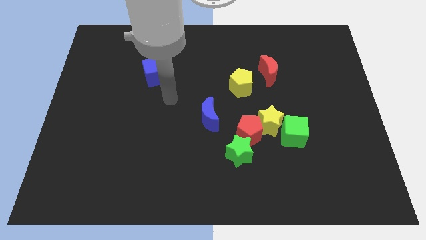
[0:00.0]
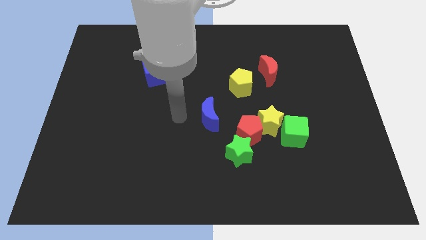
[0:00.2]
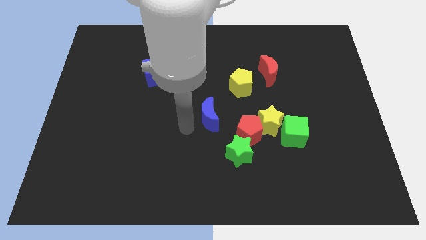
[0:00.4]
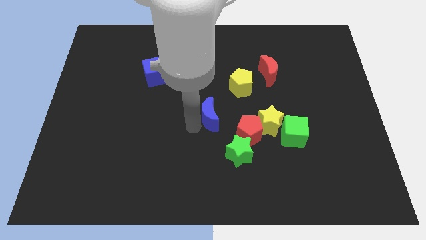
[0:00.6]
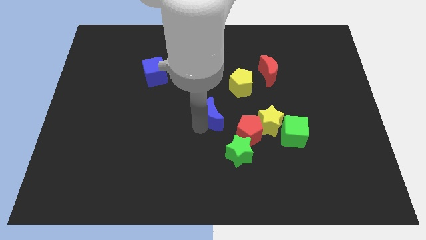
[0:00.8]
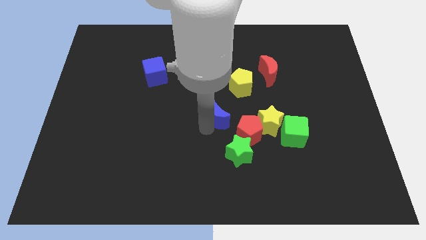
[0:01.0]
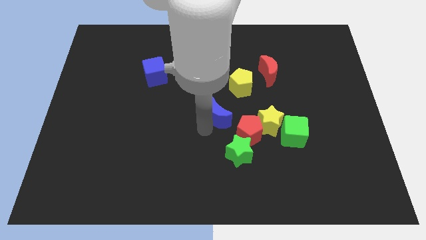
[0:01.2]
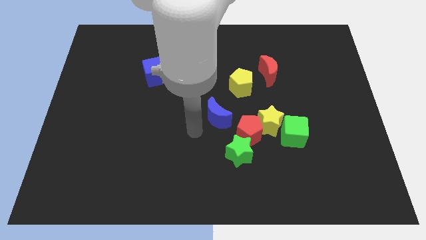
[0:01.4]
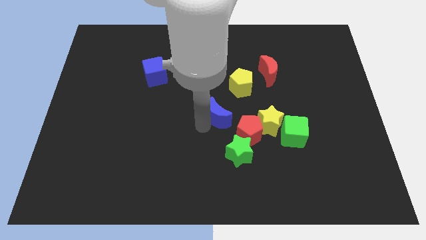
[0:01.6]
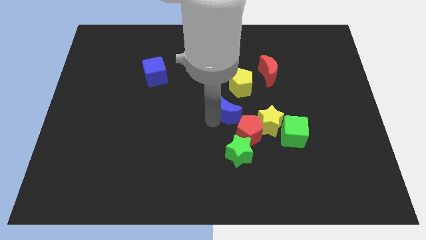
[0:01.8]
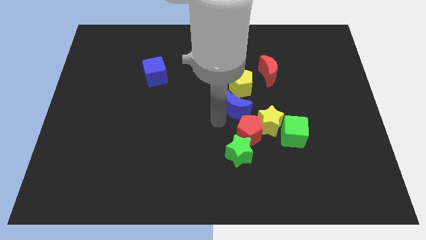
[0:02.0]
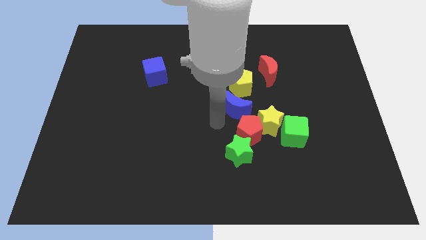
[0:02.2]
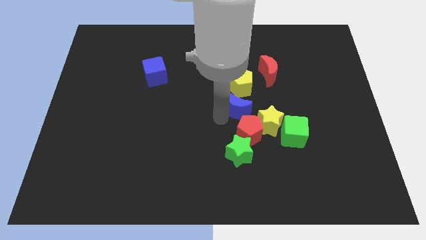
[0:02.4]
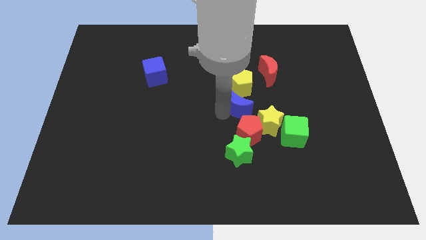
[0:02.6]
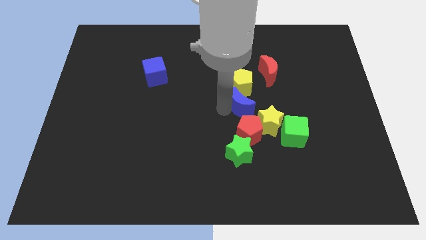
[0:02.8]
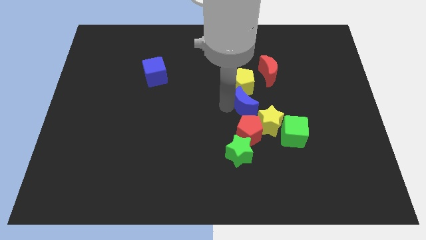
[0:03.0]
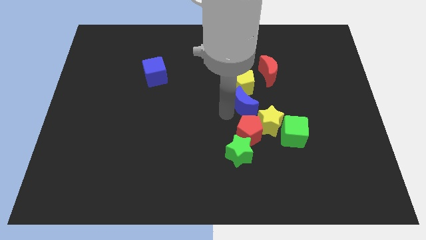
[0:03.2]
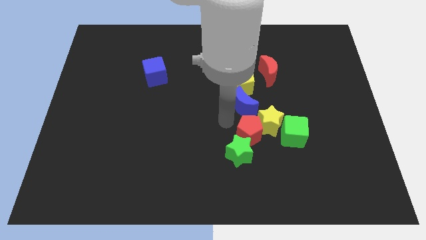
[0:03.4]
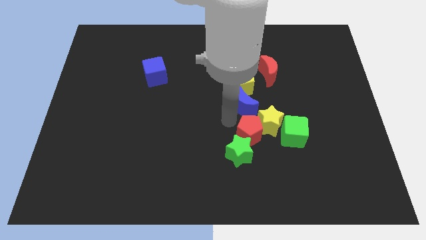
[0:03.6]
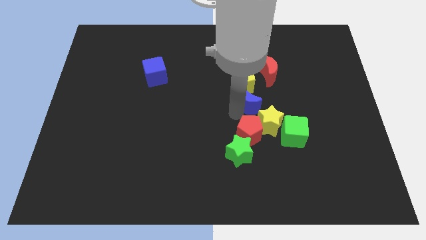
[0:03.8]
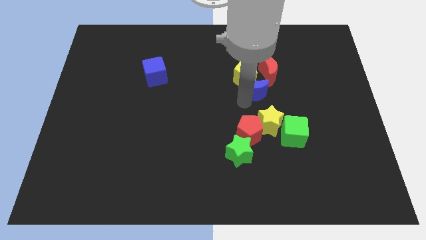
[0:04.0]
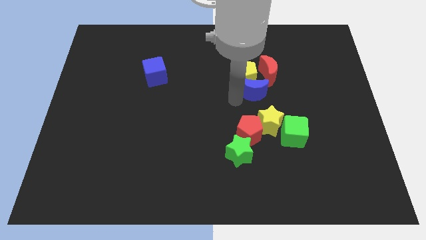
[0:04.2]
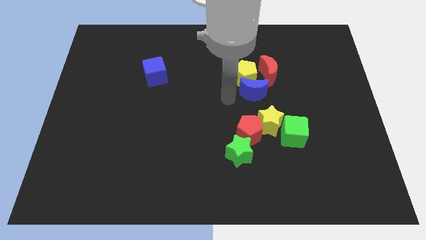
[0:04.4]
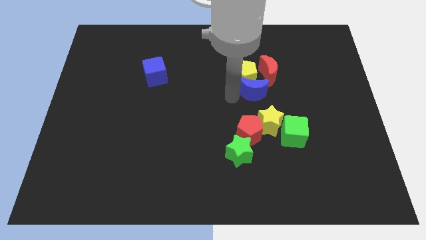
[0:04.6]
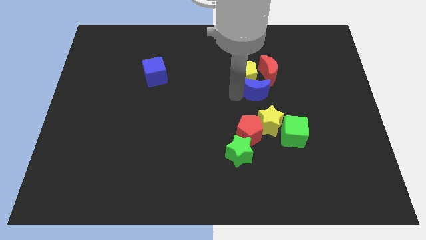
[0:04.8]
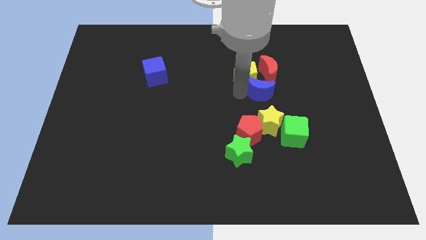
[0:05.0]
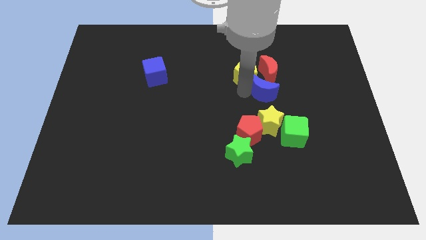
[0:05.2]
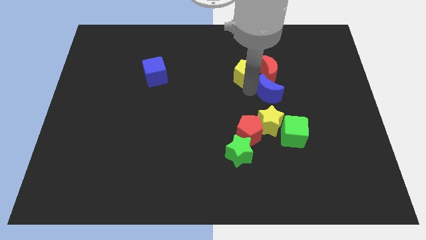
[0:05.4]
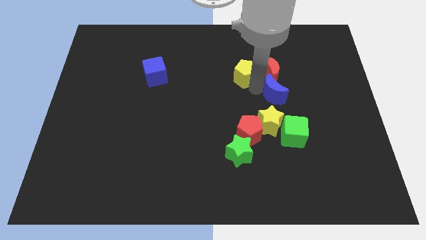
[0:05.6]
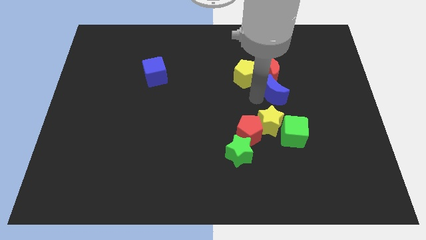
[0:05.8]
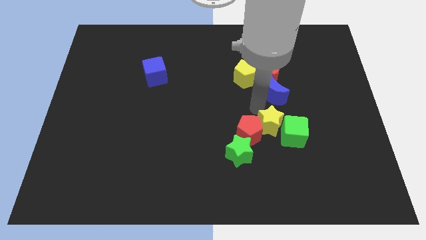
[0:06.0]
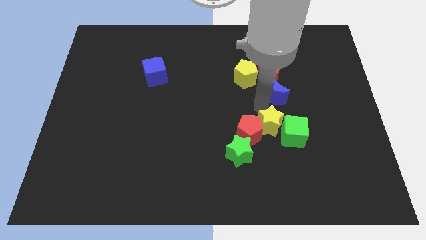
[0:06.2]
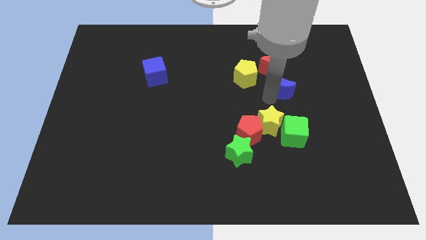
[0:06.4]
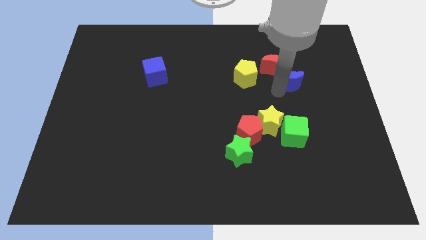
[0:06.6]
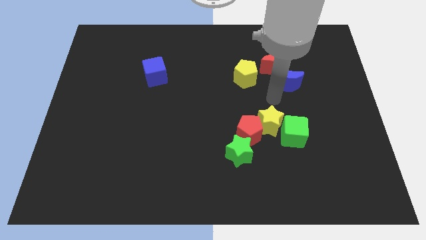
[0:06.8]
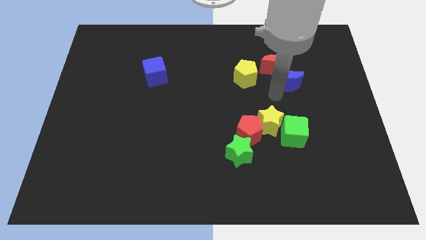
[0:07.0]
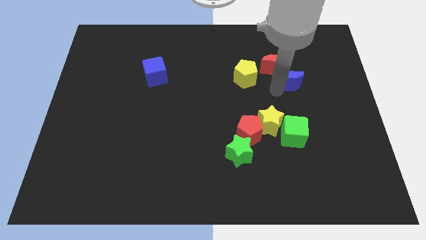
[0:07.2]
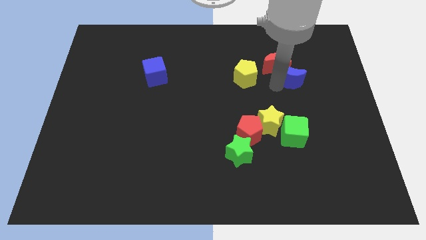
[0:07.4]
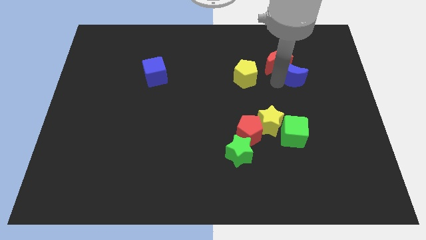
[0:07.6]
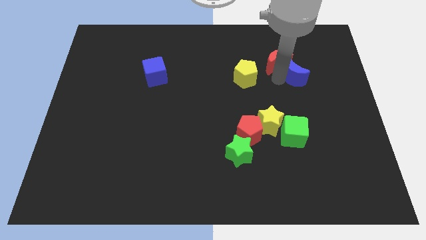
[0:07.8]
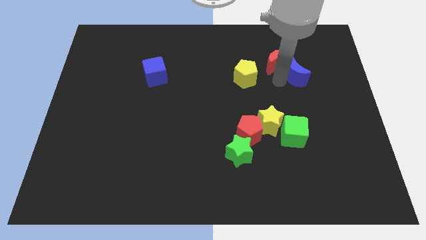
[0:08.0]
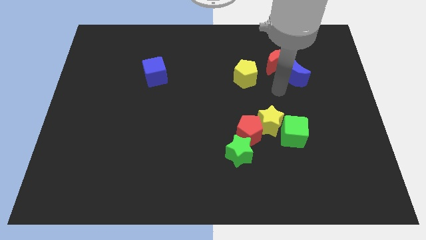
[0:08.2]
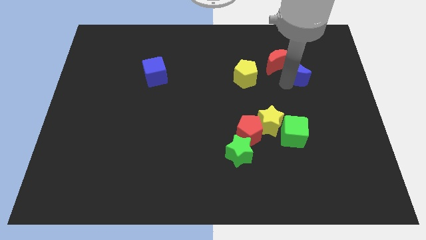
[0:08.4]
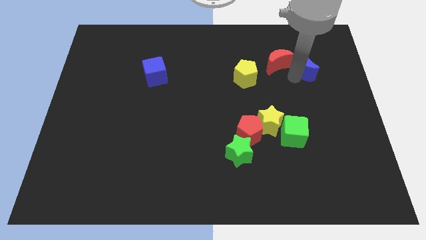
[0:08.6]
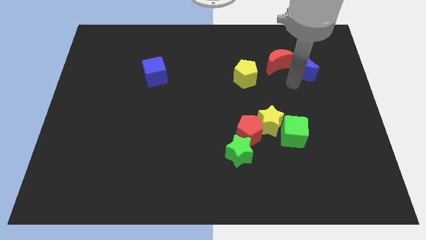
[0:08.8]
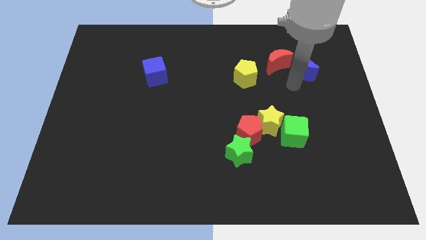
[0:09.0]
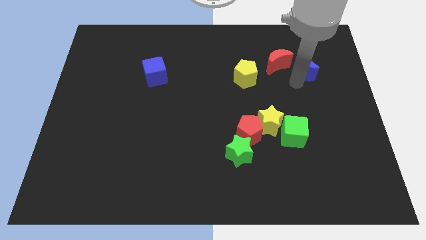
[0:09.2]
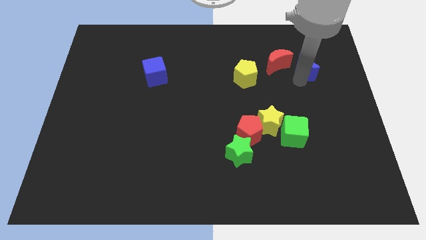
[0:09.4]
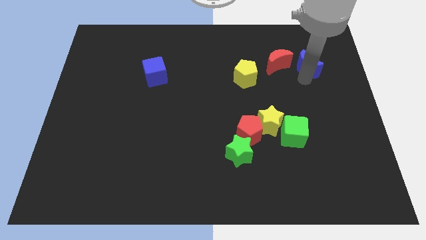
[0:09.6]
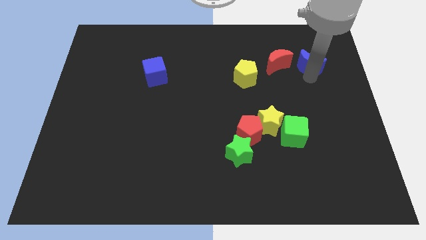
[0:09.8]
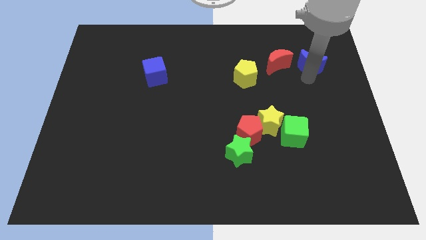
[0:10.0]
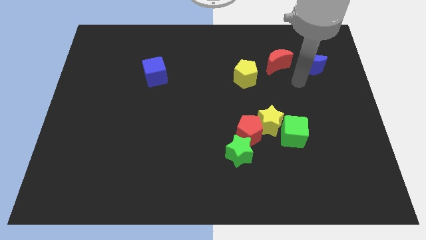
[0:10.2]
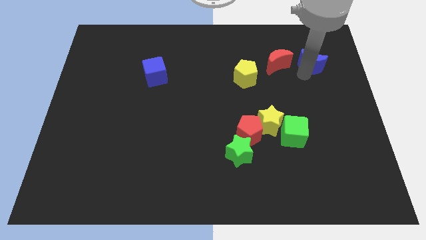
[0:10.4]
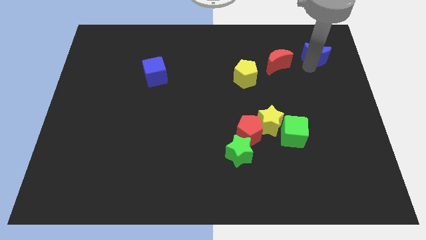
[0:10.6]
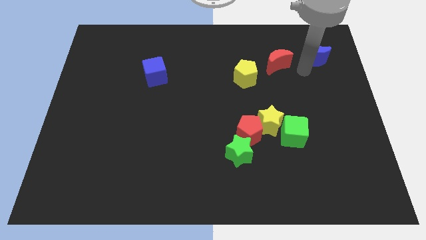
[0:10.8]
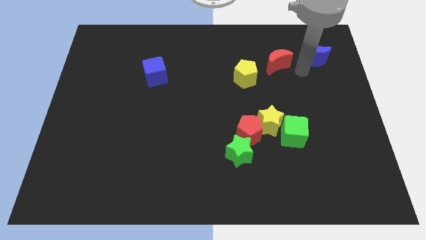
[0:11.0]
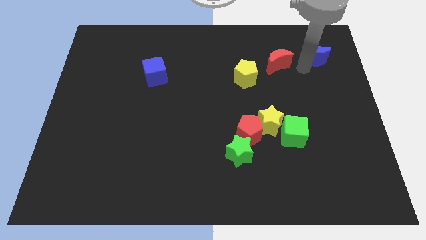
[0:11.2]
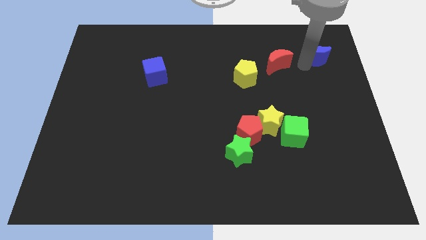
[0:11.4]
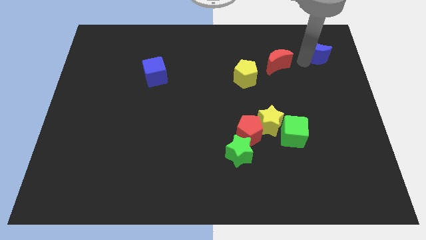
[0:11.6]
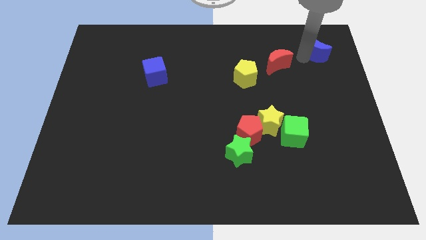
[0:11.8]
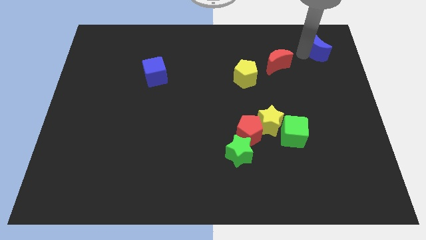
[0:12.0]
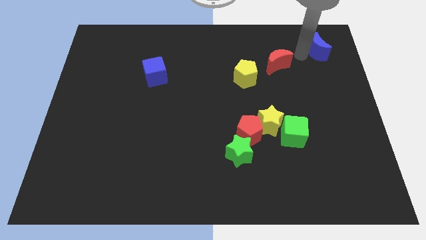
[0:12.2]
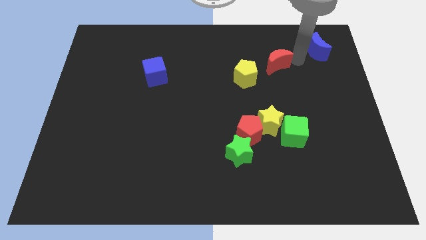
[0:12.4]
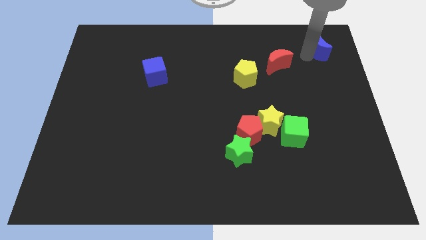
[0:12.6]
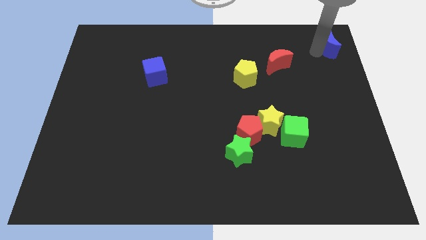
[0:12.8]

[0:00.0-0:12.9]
slide the blue moon to the top right
